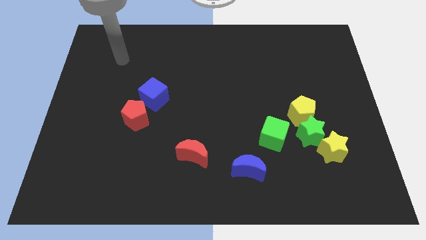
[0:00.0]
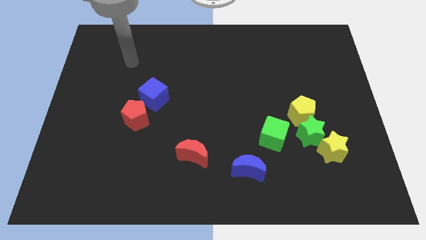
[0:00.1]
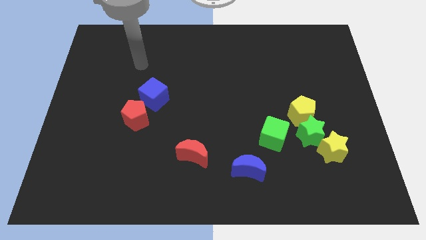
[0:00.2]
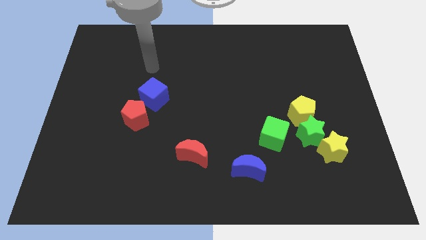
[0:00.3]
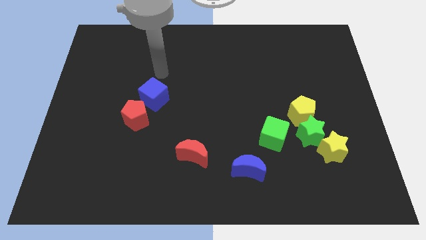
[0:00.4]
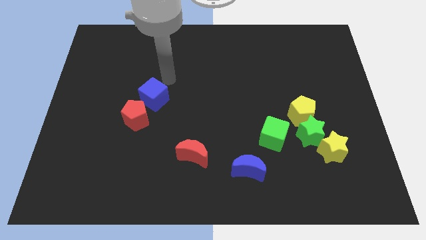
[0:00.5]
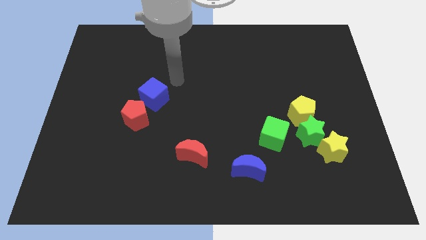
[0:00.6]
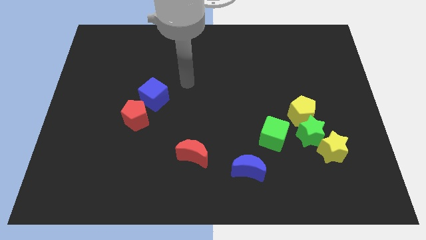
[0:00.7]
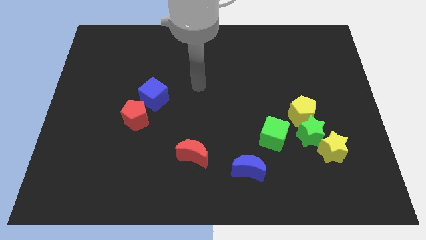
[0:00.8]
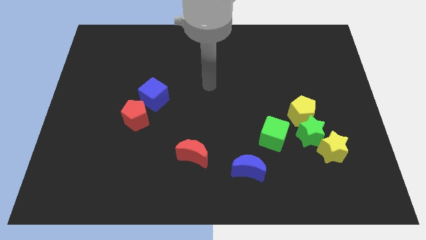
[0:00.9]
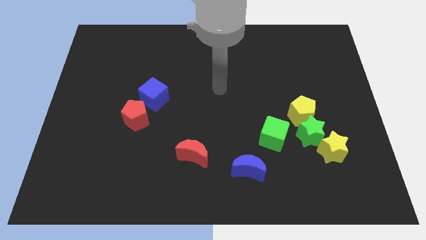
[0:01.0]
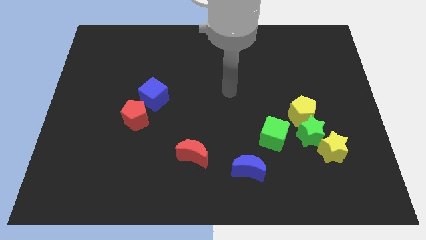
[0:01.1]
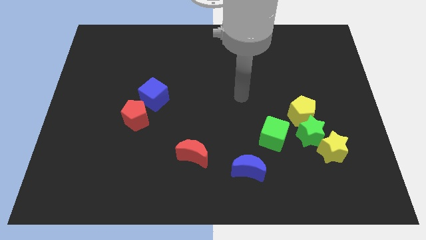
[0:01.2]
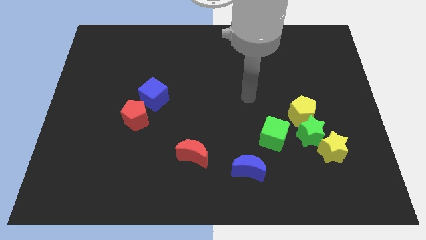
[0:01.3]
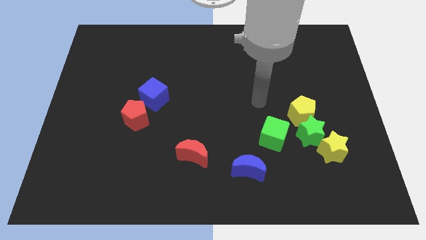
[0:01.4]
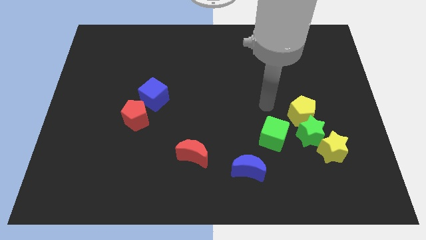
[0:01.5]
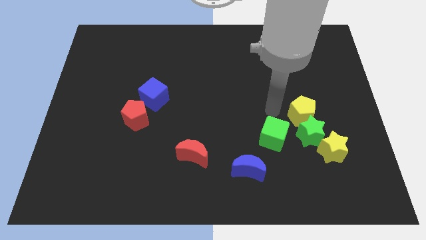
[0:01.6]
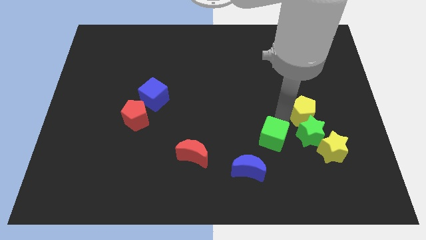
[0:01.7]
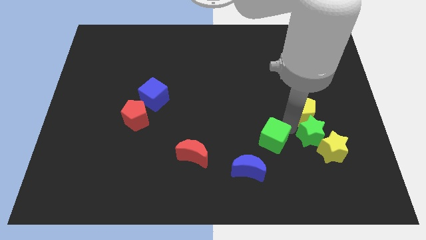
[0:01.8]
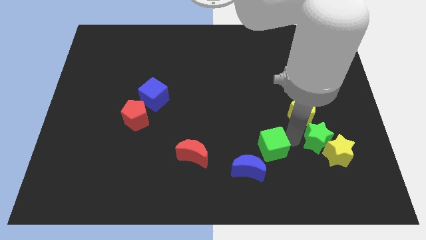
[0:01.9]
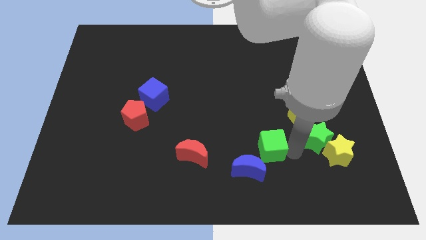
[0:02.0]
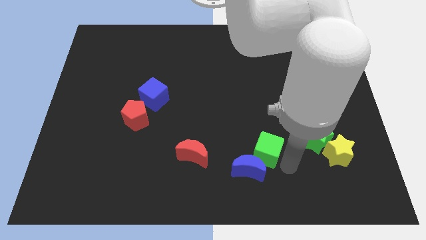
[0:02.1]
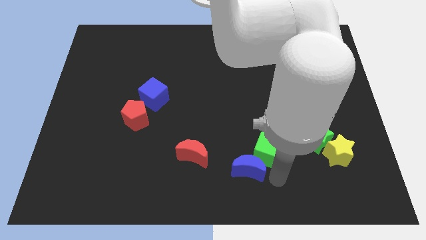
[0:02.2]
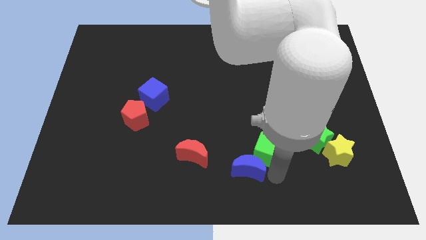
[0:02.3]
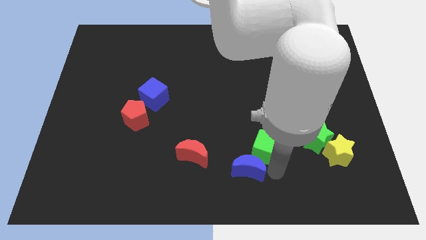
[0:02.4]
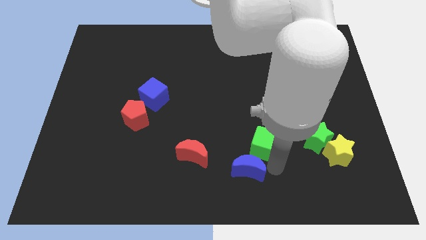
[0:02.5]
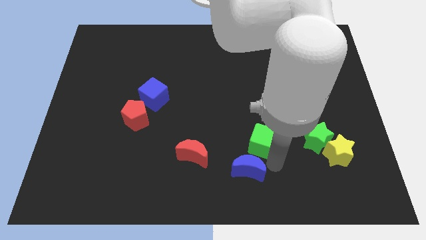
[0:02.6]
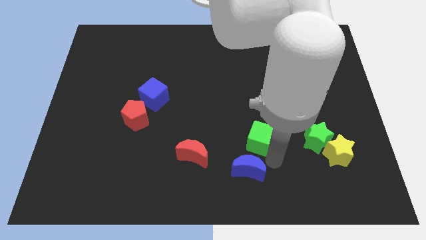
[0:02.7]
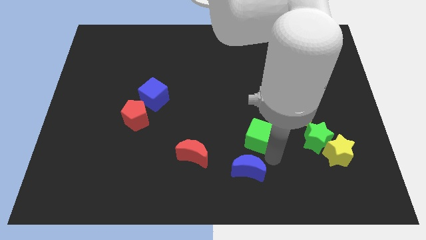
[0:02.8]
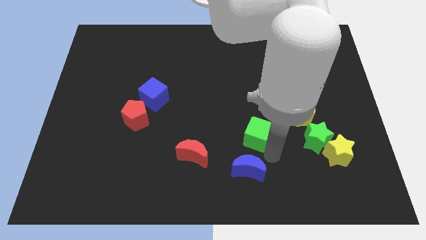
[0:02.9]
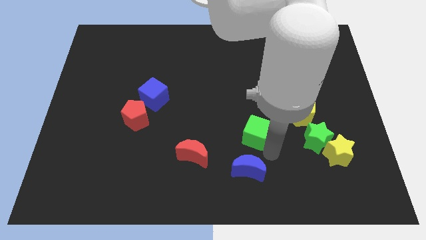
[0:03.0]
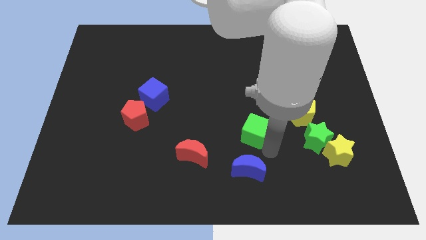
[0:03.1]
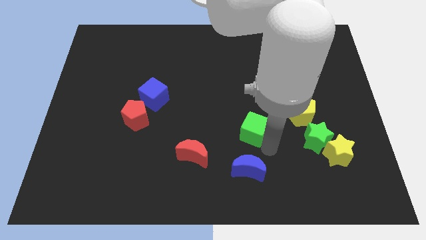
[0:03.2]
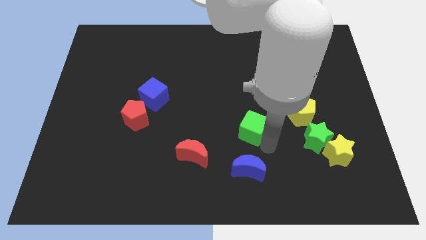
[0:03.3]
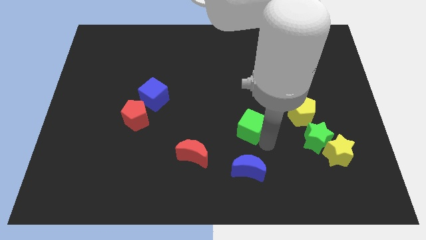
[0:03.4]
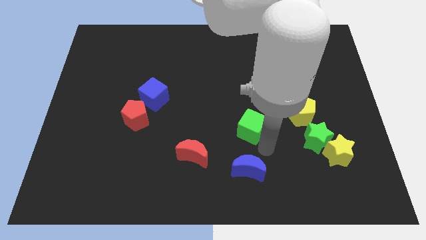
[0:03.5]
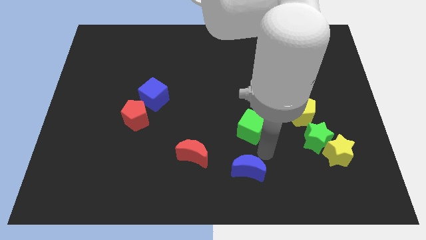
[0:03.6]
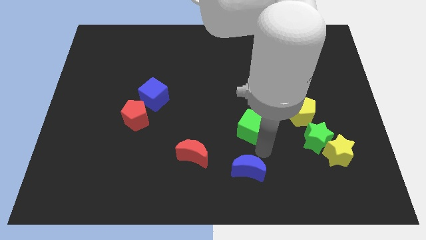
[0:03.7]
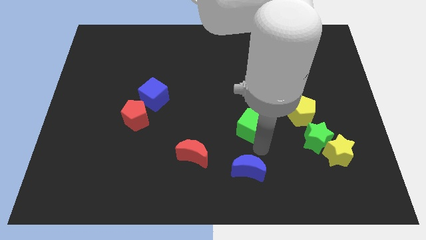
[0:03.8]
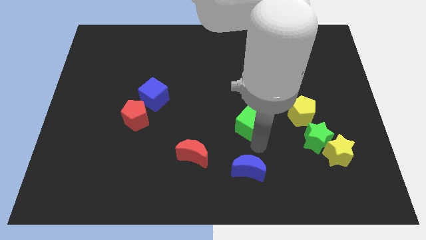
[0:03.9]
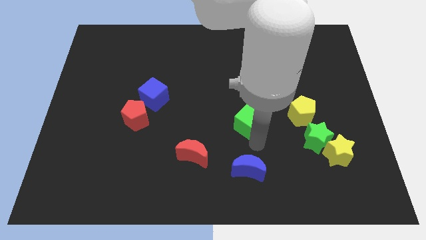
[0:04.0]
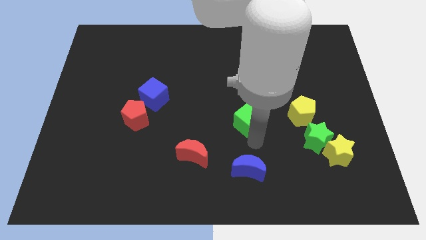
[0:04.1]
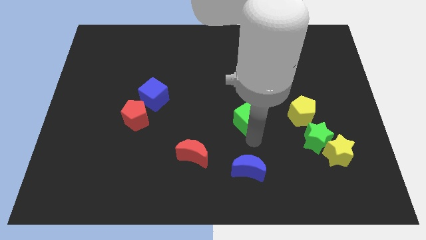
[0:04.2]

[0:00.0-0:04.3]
slide the green cube a little upwards and to the left

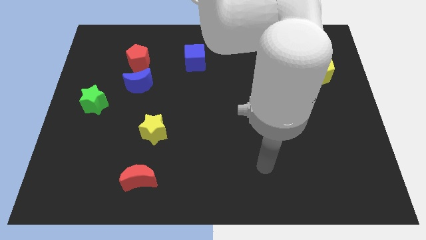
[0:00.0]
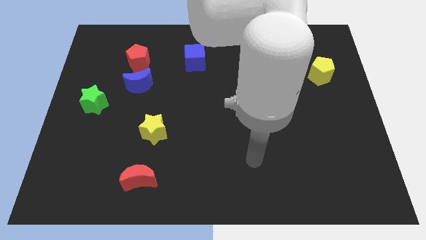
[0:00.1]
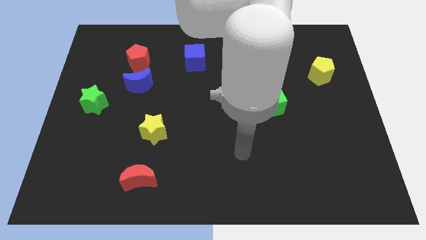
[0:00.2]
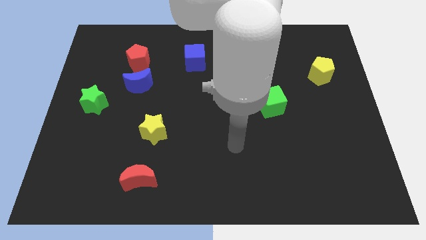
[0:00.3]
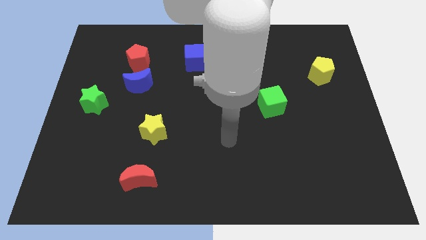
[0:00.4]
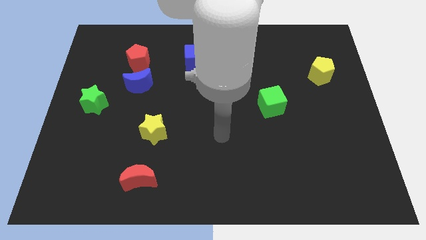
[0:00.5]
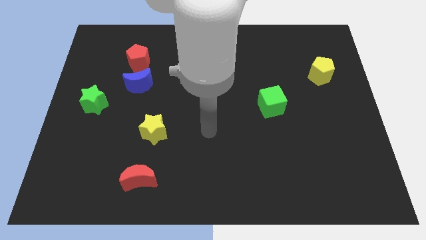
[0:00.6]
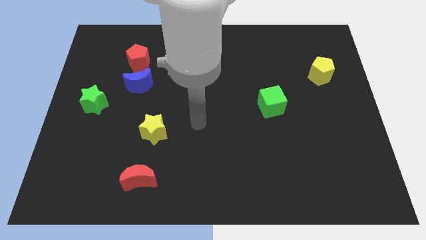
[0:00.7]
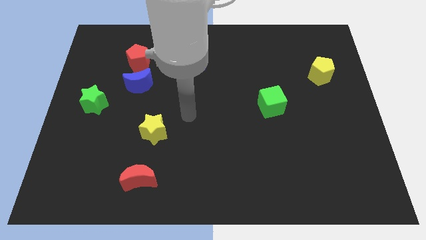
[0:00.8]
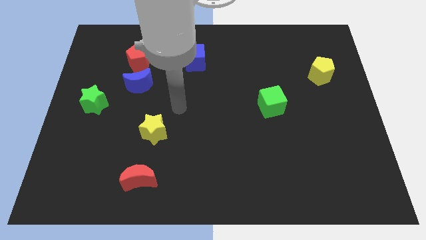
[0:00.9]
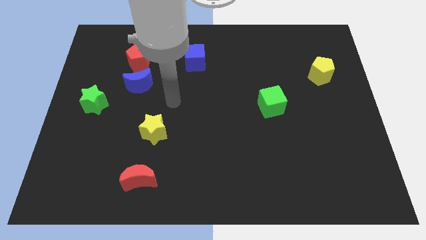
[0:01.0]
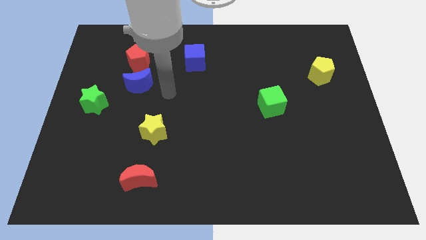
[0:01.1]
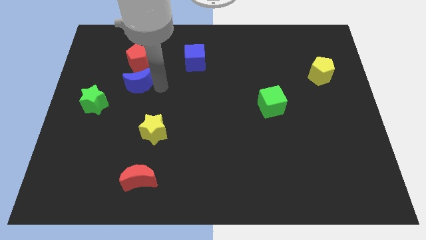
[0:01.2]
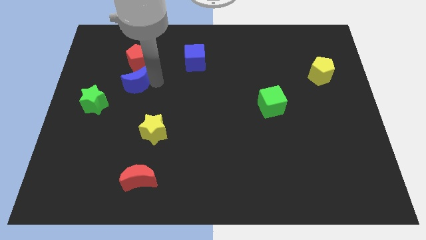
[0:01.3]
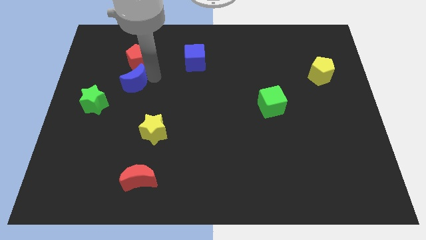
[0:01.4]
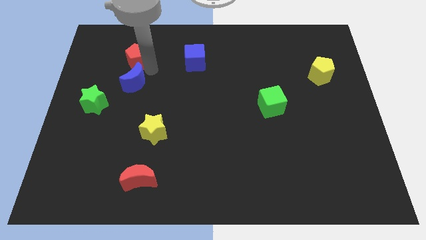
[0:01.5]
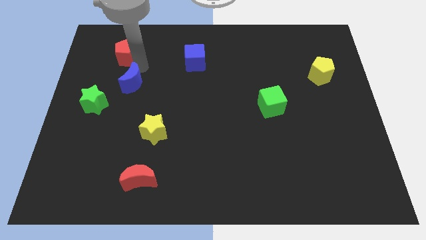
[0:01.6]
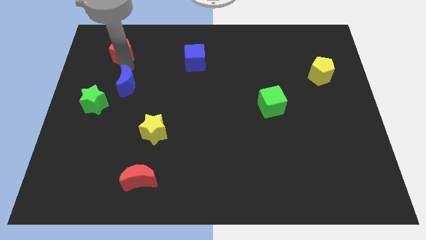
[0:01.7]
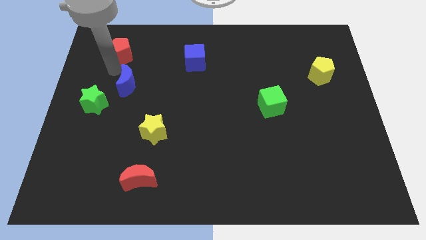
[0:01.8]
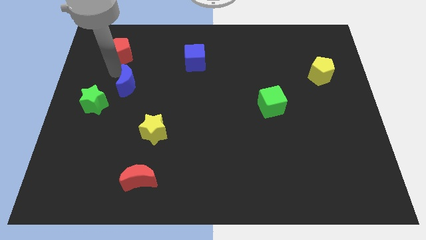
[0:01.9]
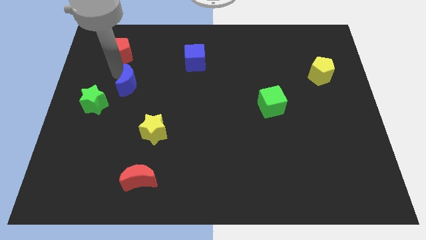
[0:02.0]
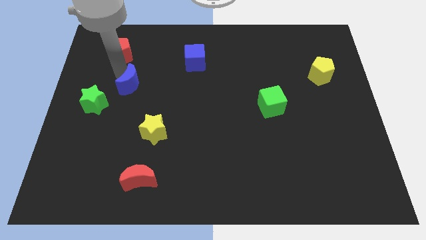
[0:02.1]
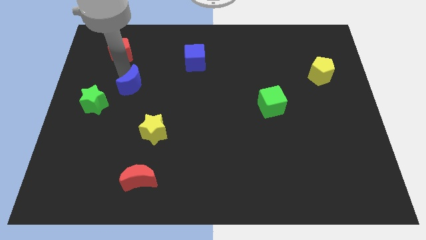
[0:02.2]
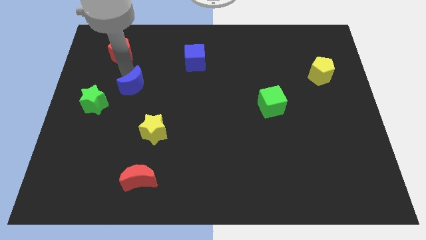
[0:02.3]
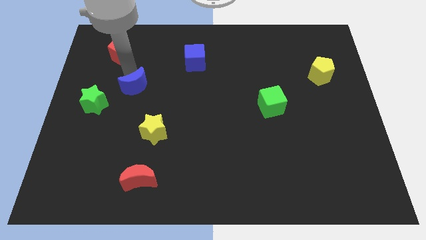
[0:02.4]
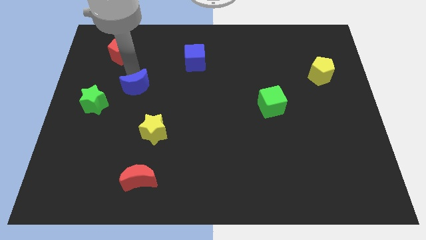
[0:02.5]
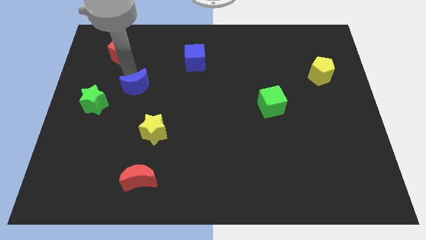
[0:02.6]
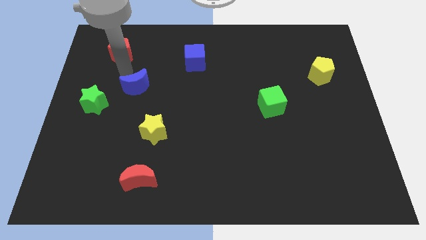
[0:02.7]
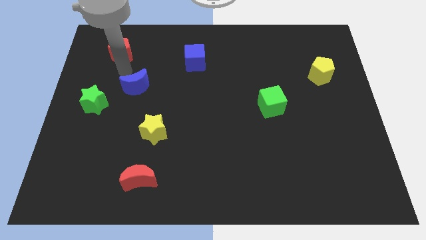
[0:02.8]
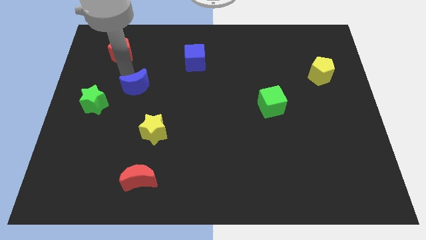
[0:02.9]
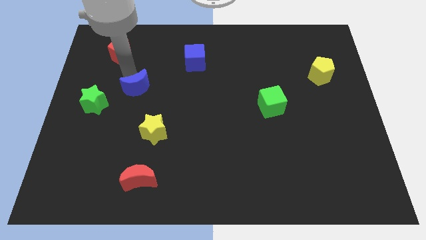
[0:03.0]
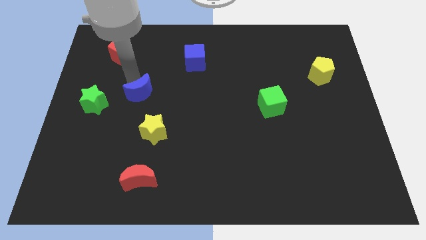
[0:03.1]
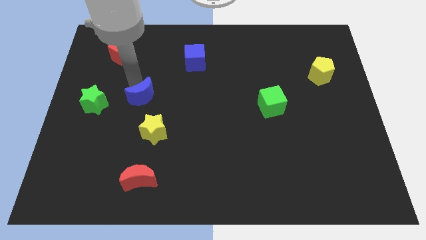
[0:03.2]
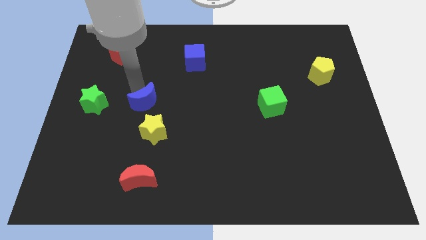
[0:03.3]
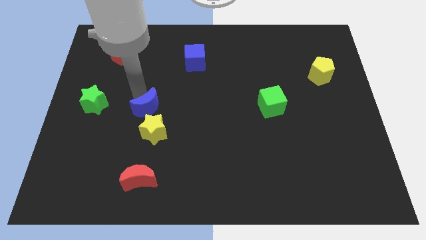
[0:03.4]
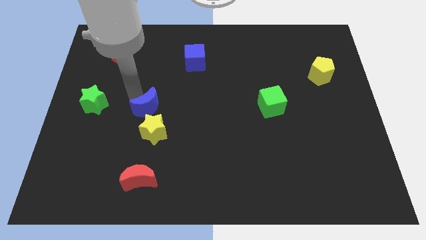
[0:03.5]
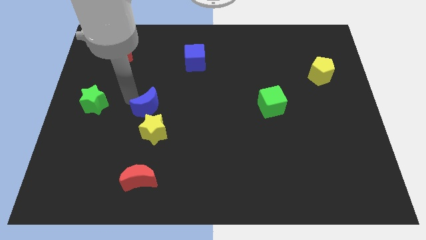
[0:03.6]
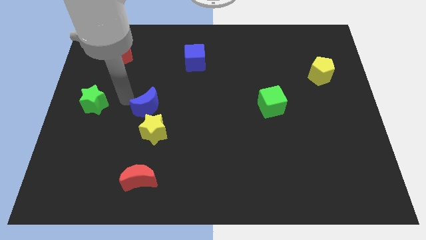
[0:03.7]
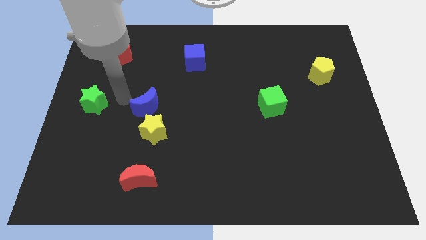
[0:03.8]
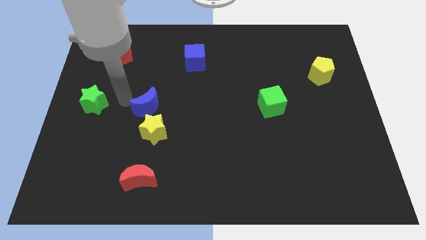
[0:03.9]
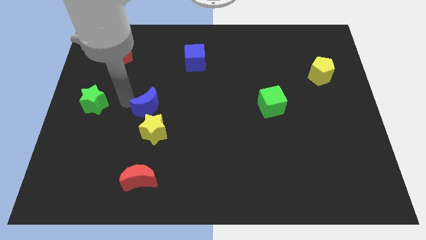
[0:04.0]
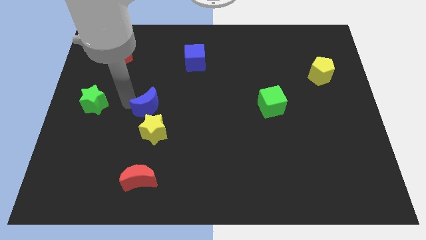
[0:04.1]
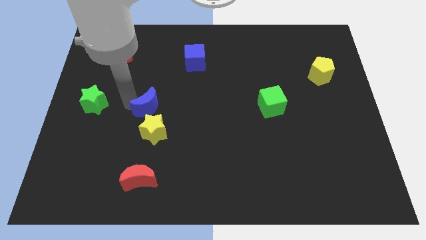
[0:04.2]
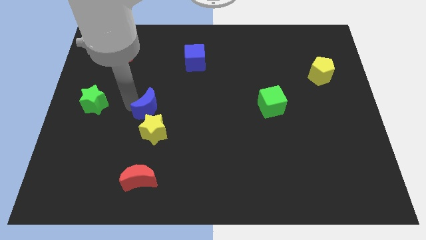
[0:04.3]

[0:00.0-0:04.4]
slide the blue moon somewhat downwards and then to the right
